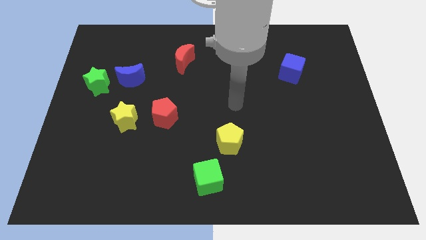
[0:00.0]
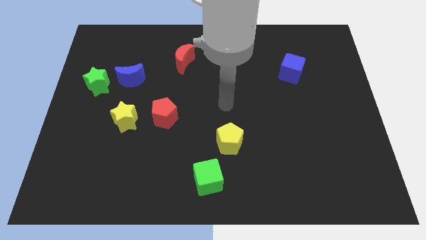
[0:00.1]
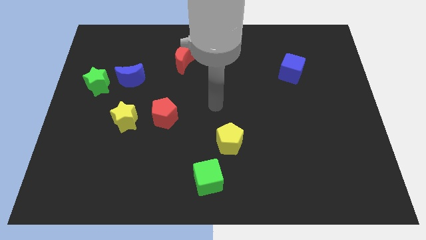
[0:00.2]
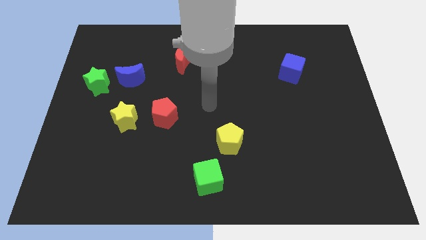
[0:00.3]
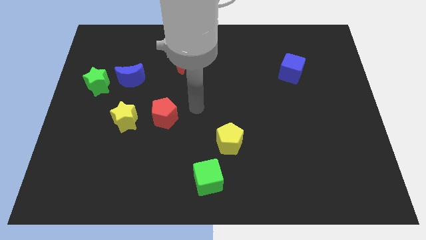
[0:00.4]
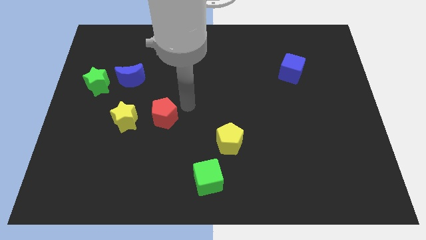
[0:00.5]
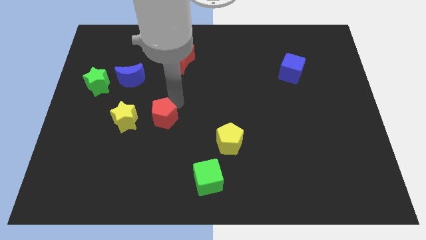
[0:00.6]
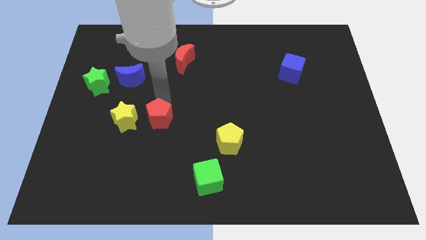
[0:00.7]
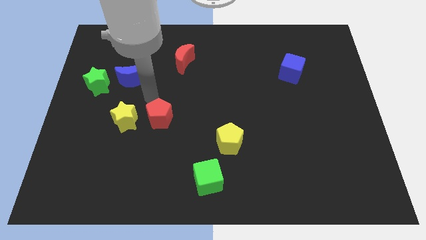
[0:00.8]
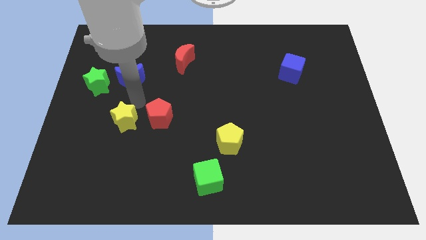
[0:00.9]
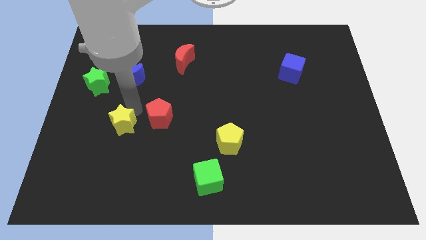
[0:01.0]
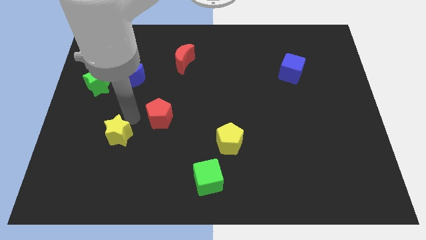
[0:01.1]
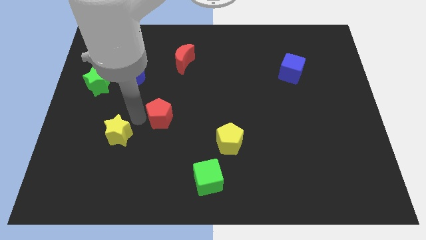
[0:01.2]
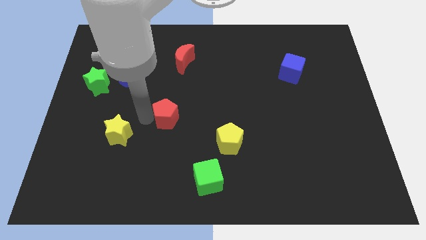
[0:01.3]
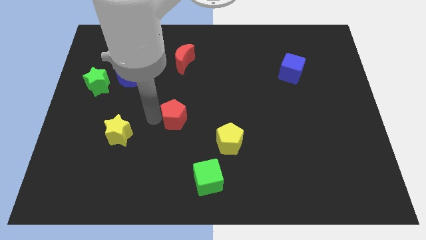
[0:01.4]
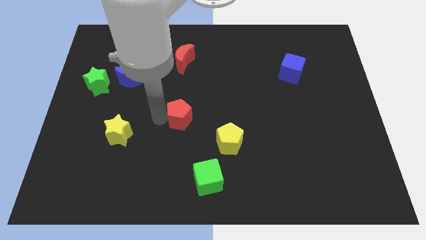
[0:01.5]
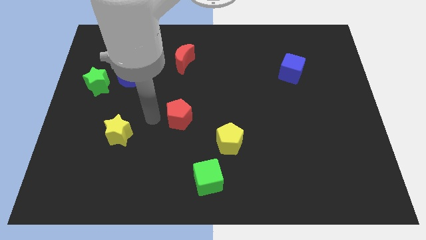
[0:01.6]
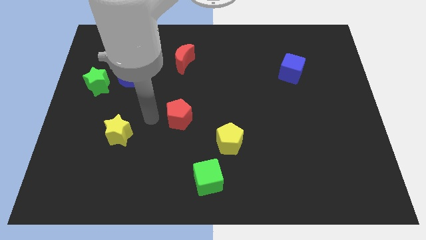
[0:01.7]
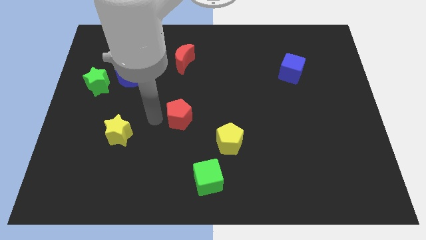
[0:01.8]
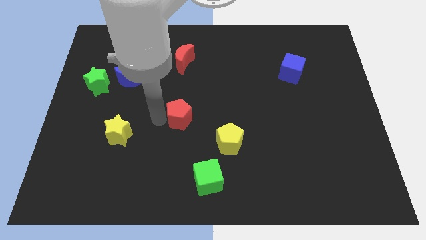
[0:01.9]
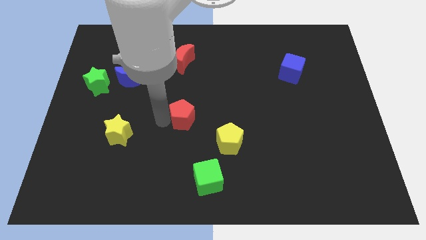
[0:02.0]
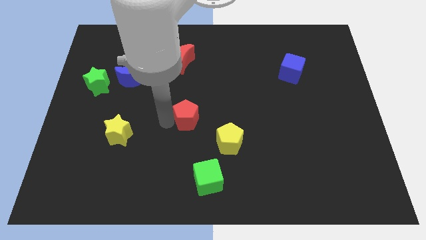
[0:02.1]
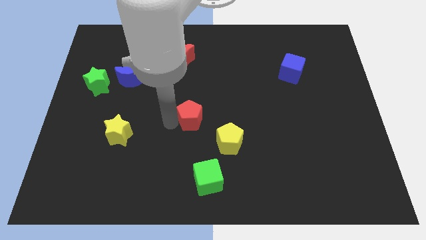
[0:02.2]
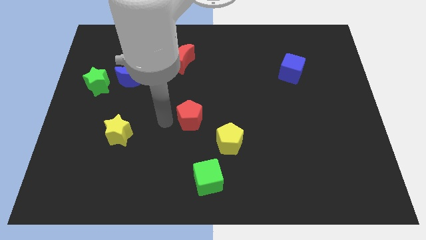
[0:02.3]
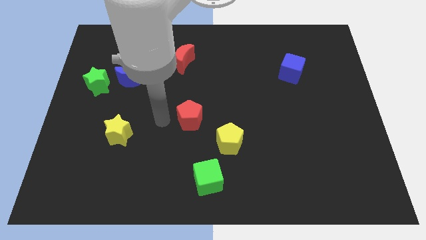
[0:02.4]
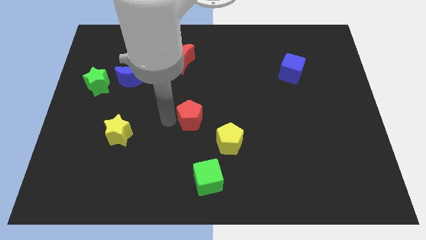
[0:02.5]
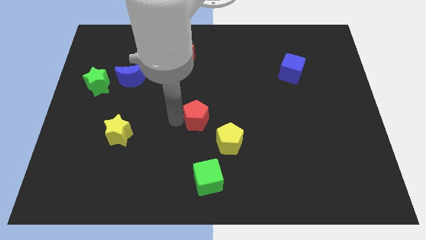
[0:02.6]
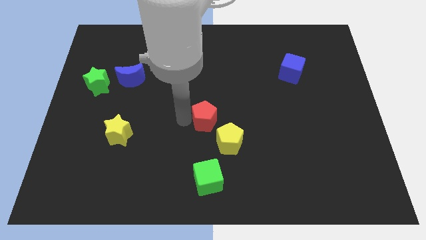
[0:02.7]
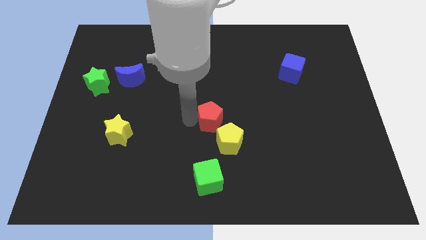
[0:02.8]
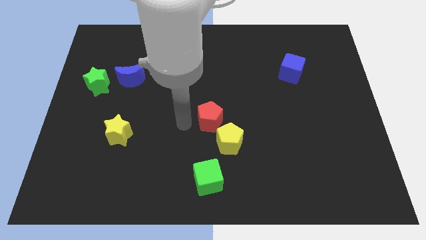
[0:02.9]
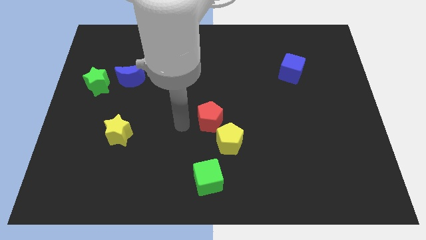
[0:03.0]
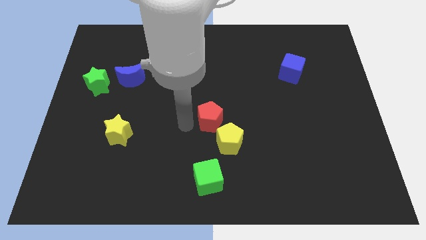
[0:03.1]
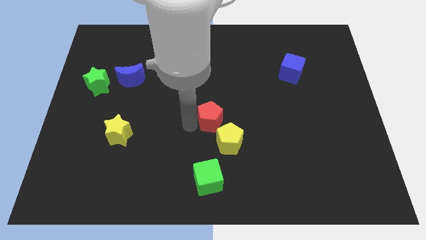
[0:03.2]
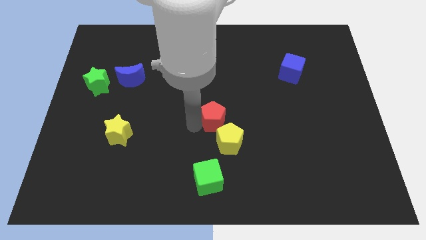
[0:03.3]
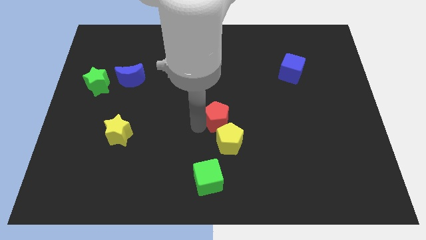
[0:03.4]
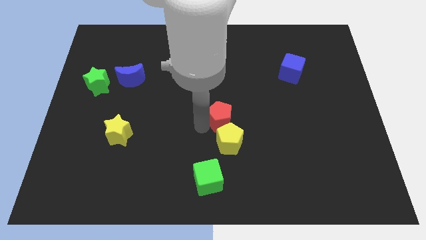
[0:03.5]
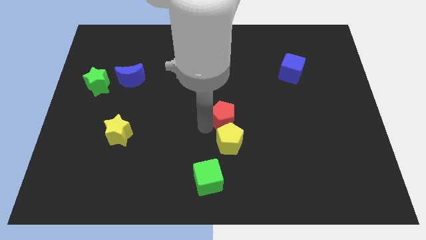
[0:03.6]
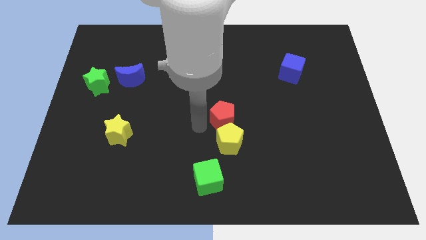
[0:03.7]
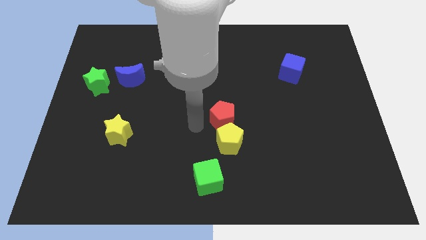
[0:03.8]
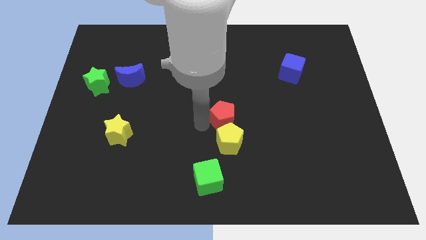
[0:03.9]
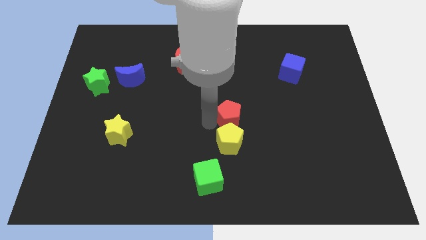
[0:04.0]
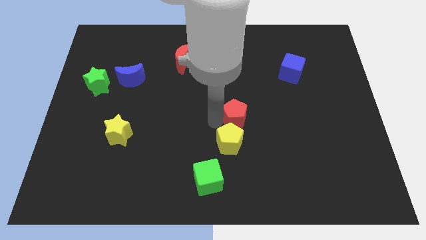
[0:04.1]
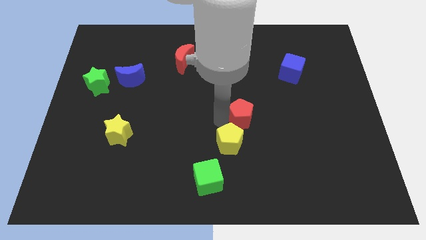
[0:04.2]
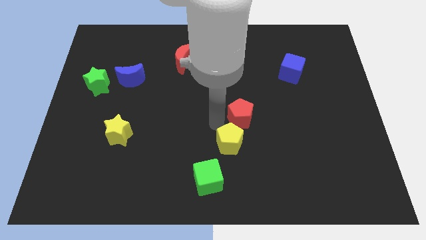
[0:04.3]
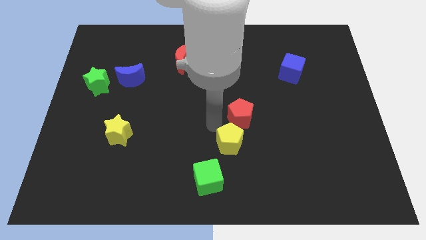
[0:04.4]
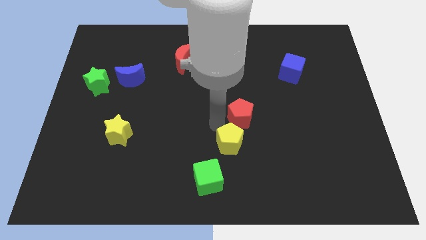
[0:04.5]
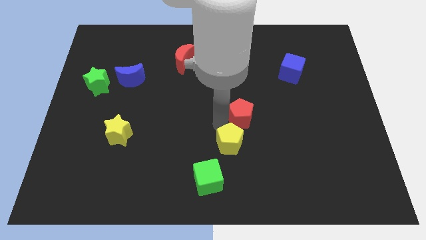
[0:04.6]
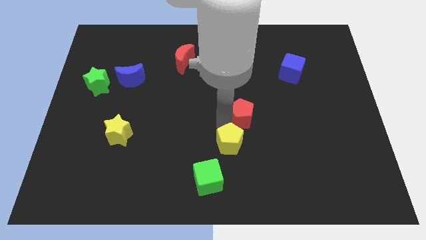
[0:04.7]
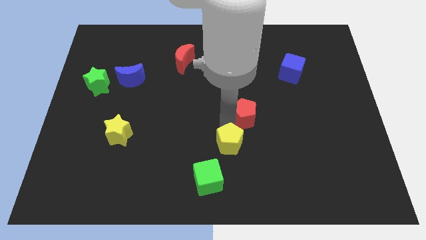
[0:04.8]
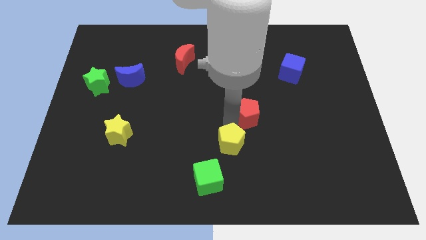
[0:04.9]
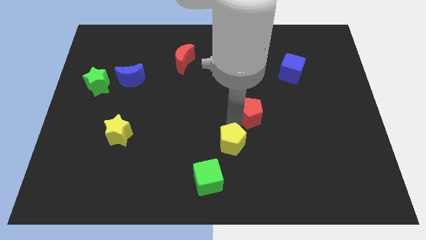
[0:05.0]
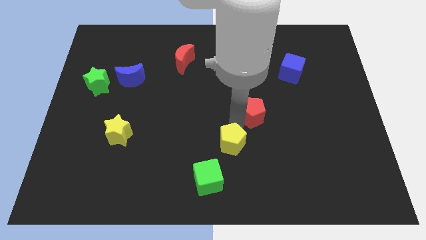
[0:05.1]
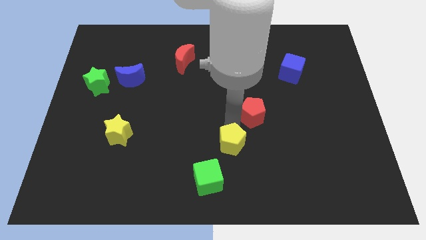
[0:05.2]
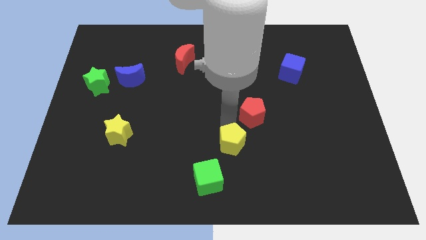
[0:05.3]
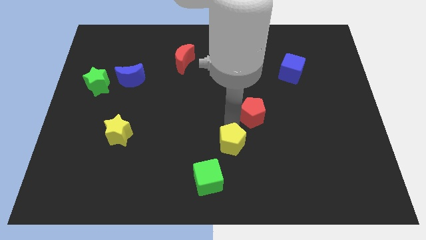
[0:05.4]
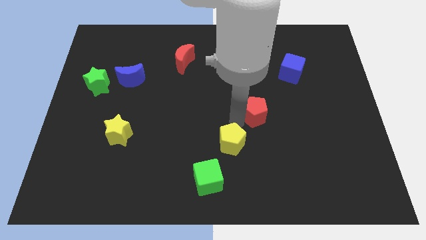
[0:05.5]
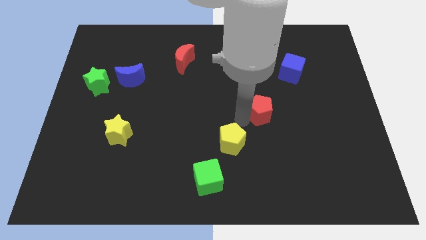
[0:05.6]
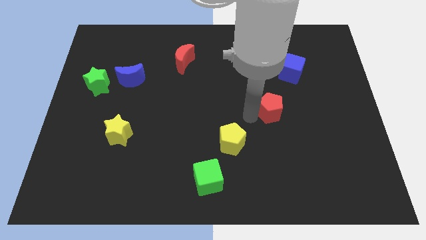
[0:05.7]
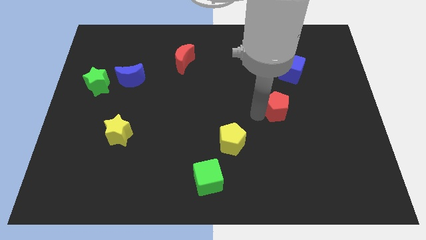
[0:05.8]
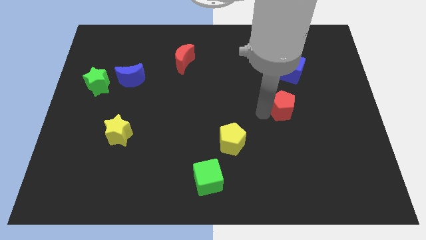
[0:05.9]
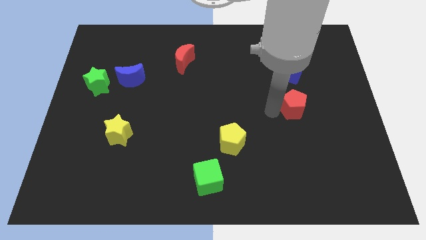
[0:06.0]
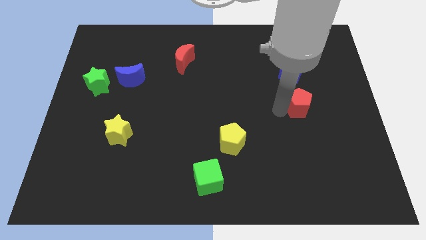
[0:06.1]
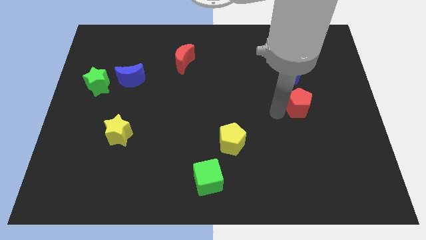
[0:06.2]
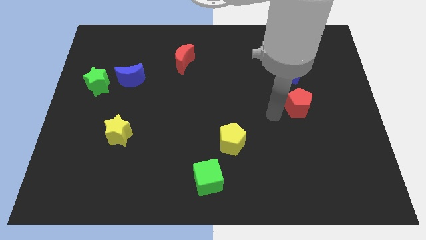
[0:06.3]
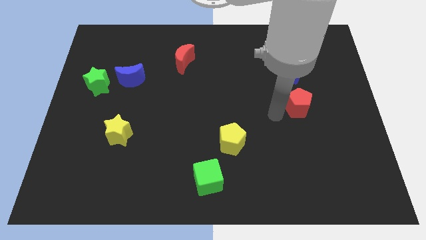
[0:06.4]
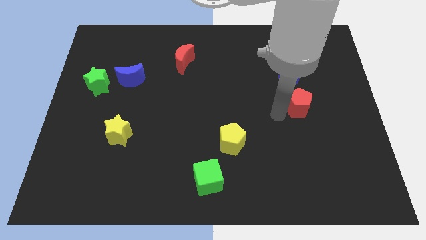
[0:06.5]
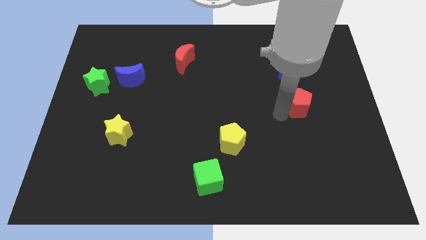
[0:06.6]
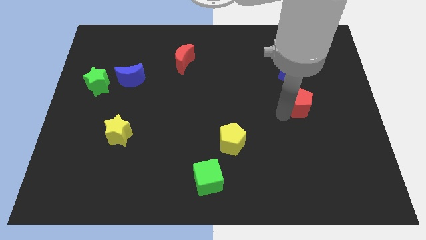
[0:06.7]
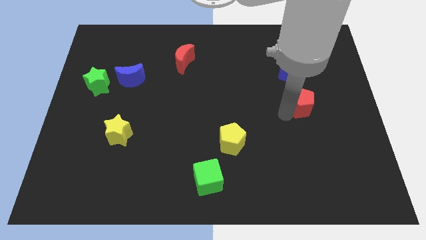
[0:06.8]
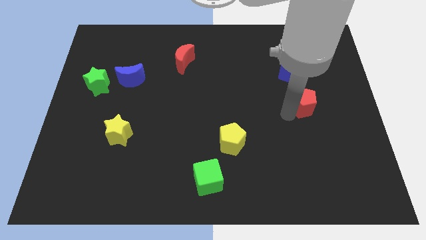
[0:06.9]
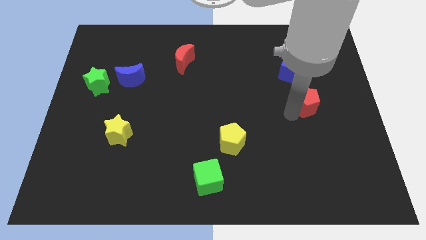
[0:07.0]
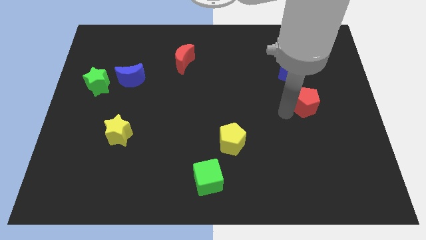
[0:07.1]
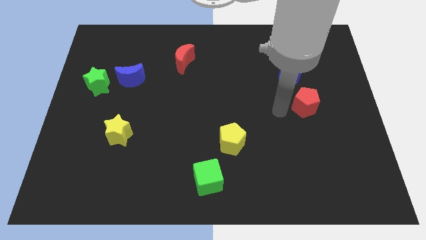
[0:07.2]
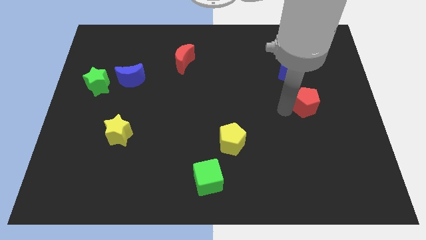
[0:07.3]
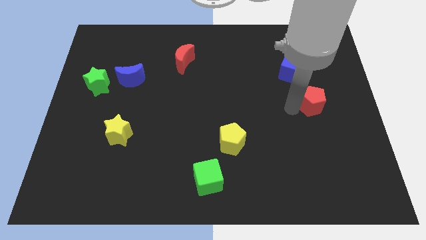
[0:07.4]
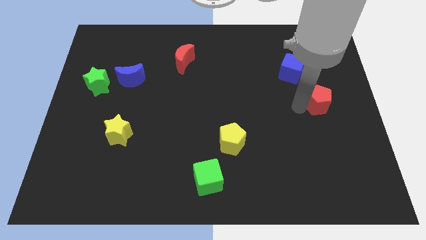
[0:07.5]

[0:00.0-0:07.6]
slide the red pentagon to the center right
